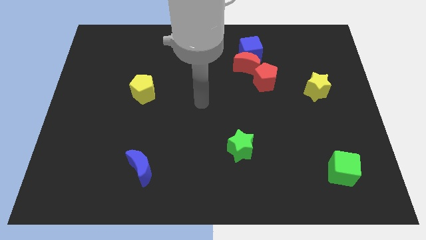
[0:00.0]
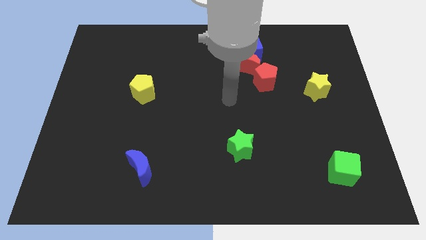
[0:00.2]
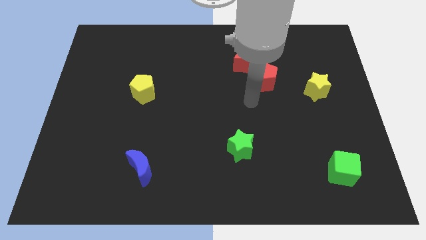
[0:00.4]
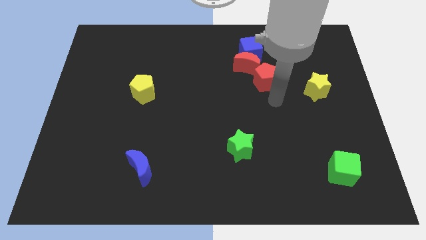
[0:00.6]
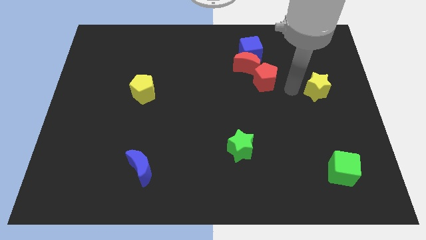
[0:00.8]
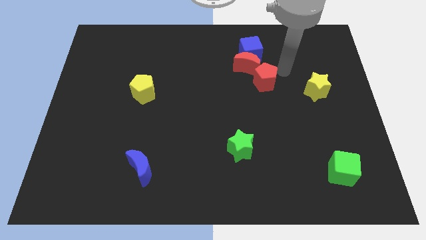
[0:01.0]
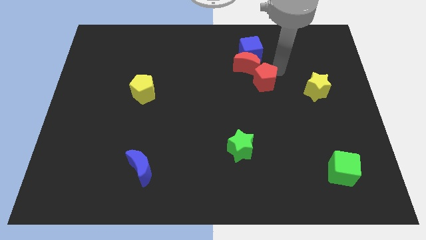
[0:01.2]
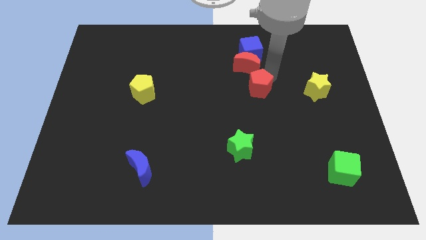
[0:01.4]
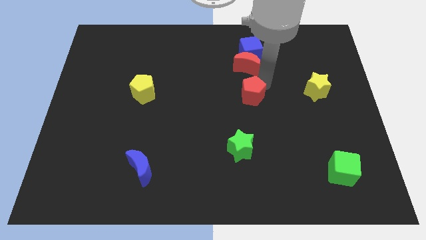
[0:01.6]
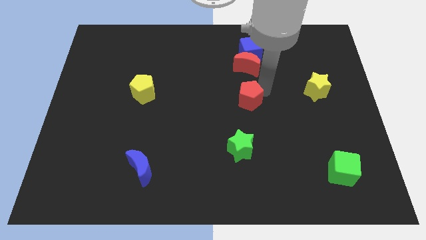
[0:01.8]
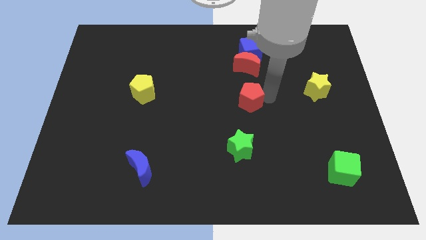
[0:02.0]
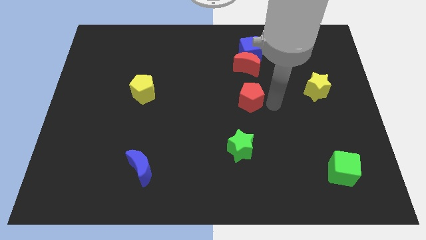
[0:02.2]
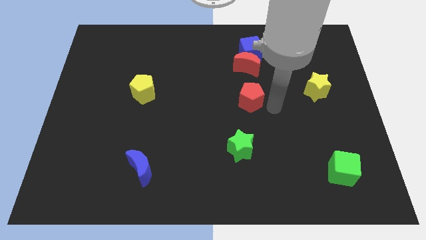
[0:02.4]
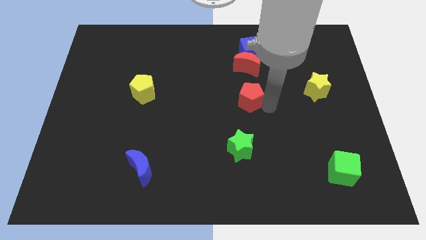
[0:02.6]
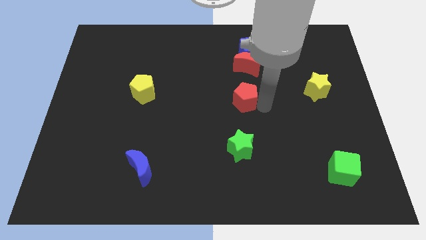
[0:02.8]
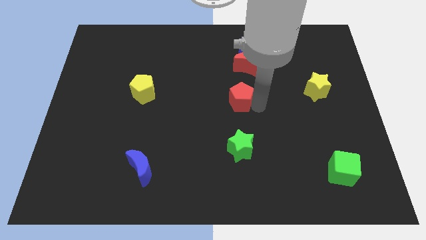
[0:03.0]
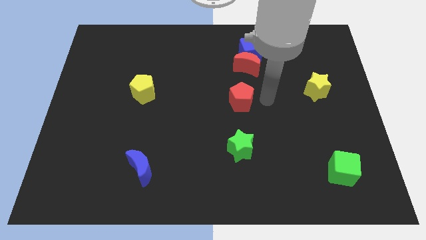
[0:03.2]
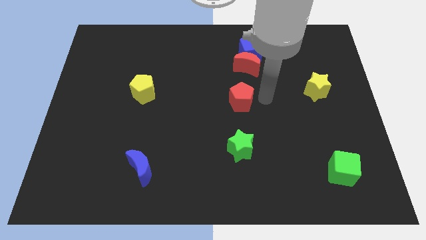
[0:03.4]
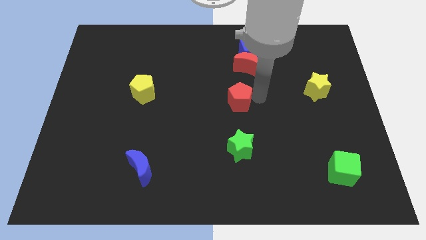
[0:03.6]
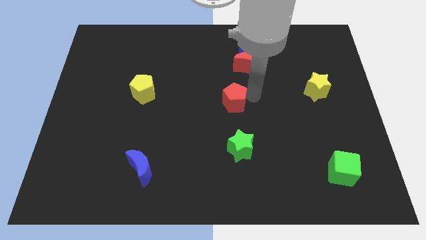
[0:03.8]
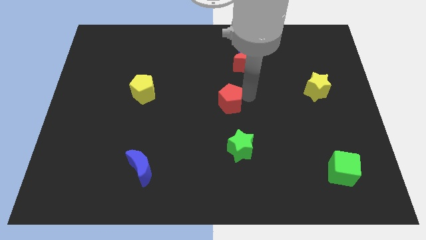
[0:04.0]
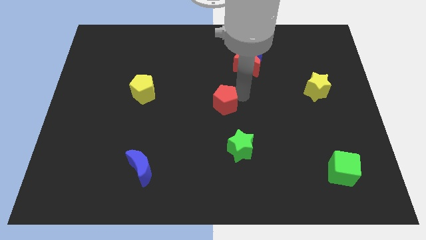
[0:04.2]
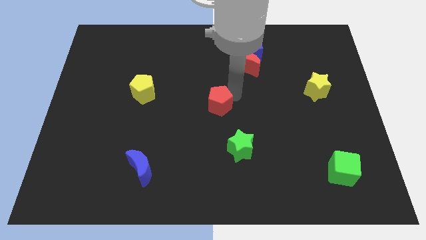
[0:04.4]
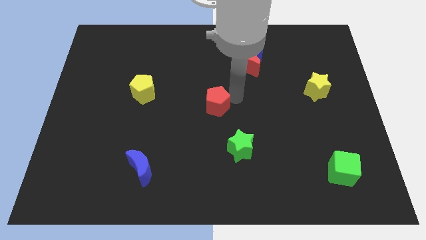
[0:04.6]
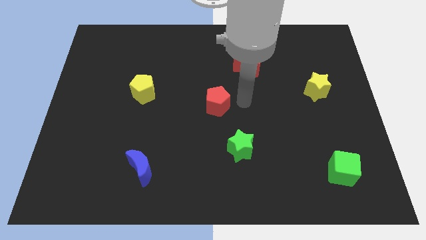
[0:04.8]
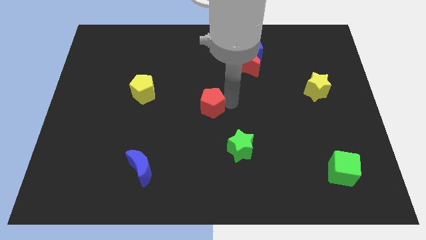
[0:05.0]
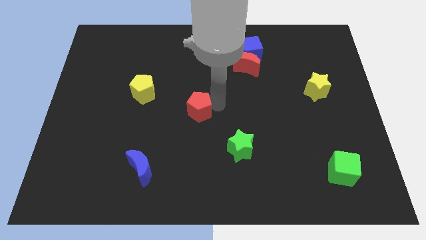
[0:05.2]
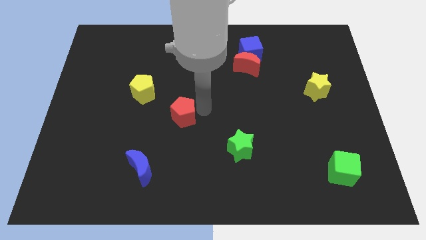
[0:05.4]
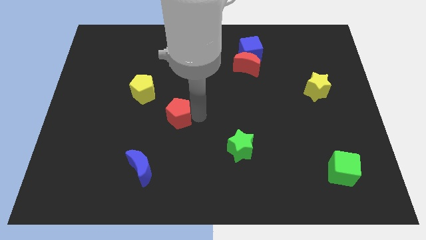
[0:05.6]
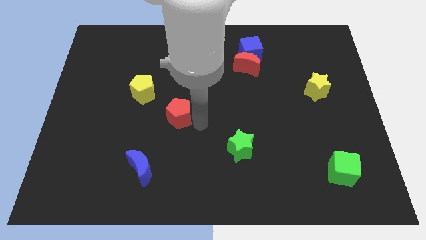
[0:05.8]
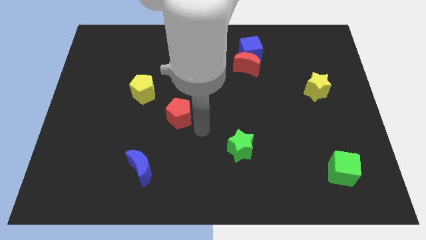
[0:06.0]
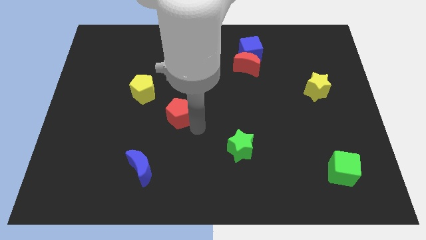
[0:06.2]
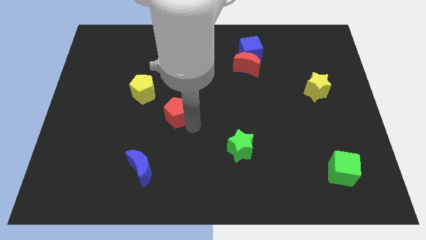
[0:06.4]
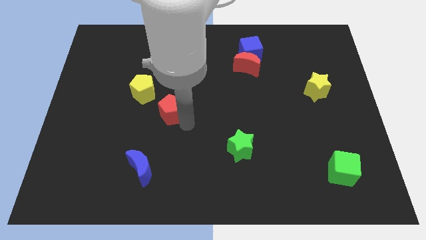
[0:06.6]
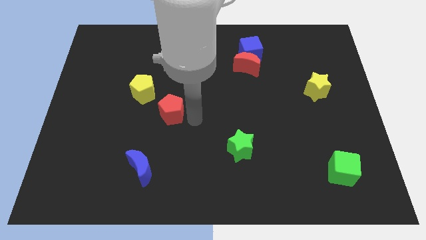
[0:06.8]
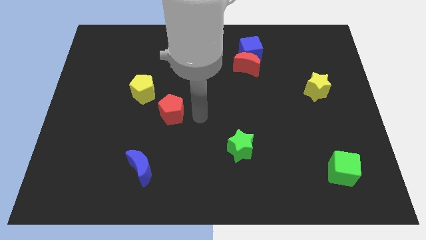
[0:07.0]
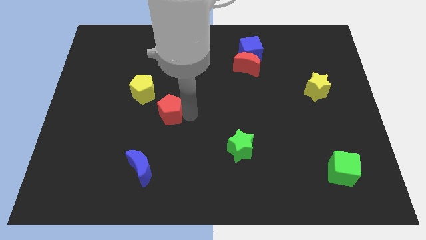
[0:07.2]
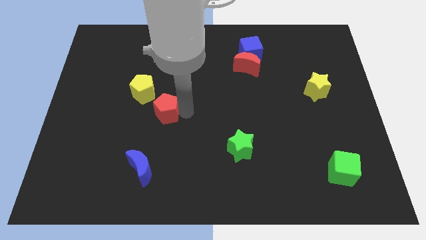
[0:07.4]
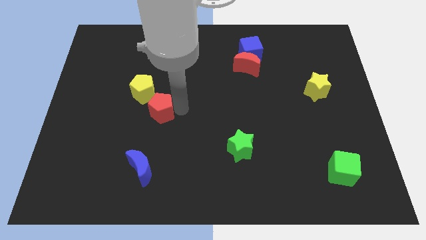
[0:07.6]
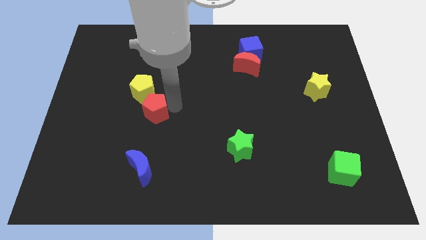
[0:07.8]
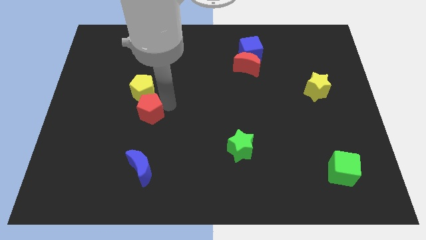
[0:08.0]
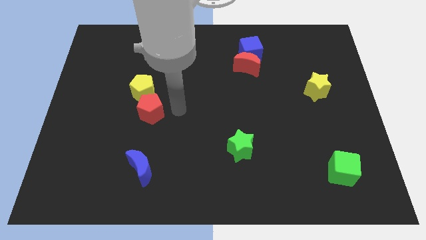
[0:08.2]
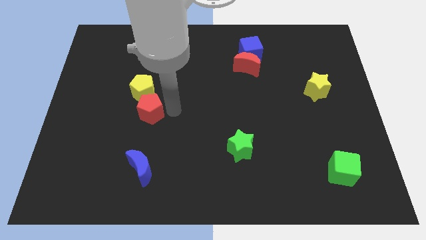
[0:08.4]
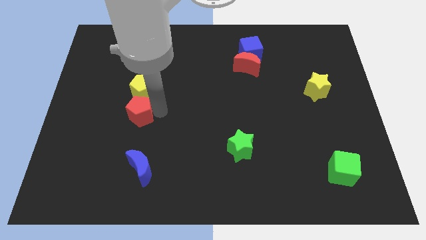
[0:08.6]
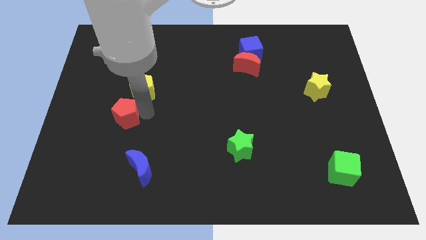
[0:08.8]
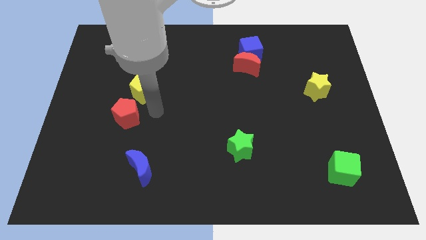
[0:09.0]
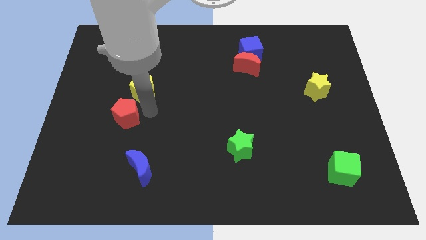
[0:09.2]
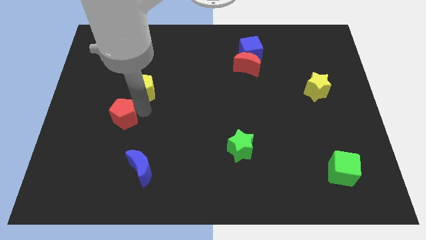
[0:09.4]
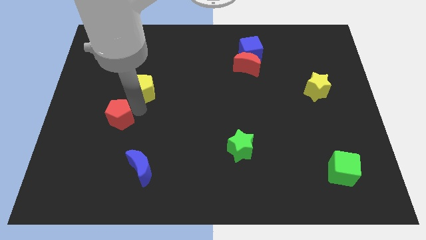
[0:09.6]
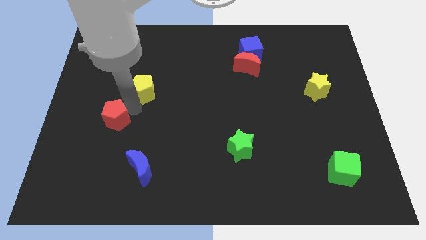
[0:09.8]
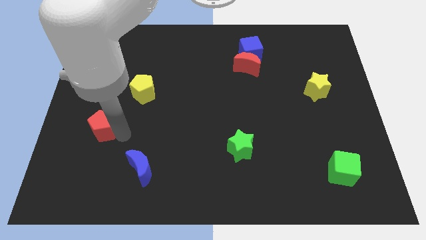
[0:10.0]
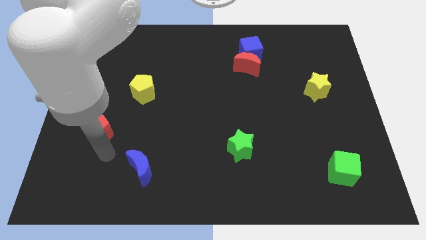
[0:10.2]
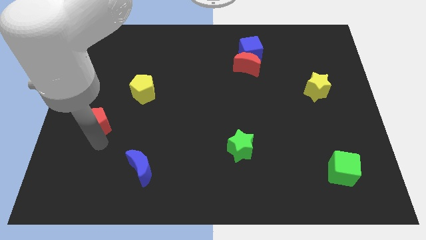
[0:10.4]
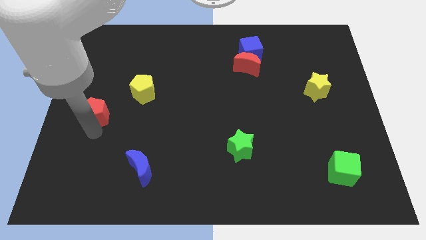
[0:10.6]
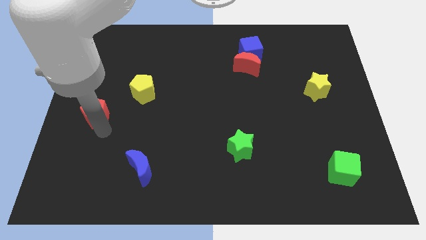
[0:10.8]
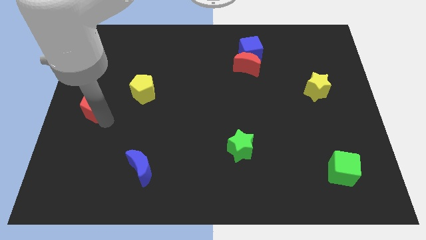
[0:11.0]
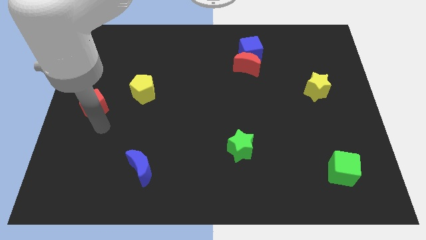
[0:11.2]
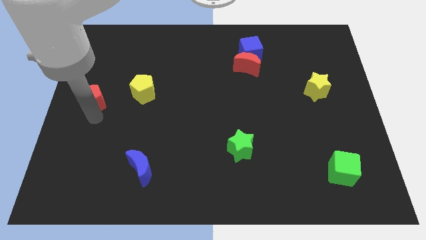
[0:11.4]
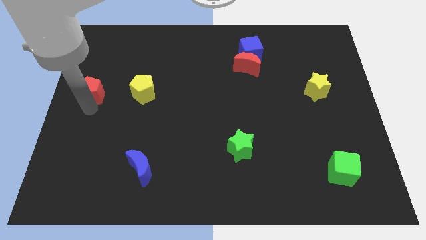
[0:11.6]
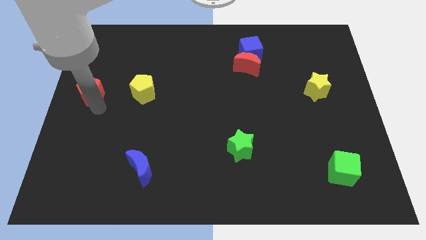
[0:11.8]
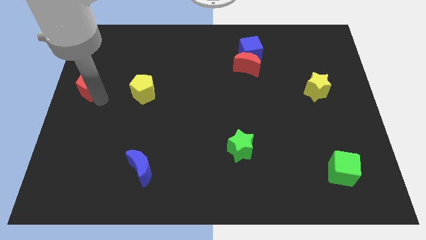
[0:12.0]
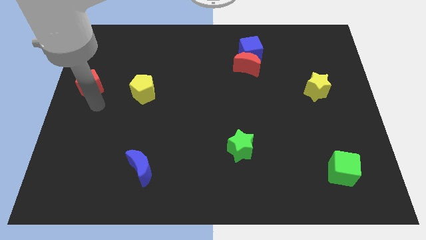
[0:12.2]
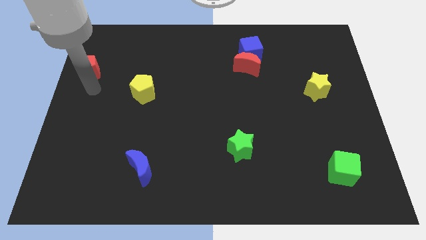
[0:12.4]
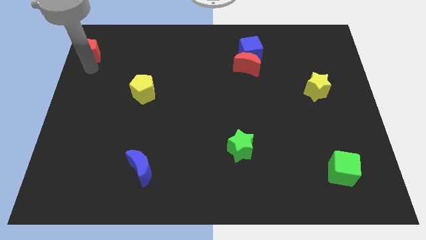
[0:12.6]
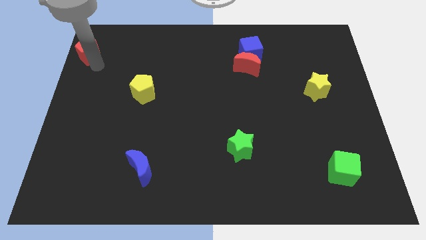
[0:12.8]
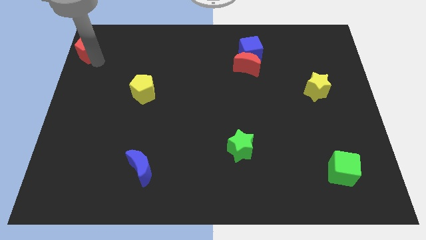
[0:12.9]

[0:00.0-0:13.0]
put the red pentagon to the upper left corner
